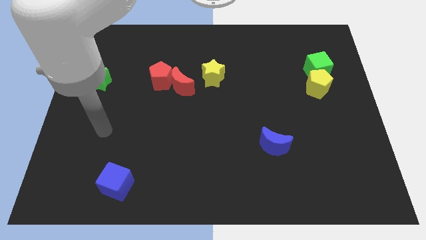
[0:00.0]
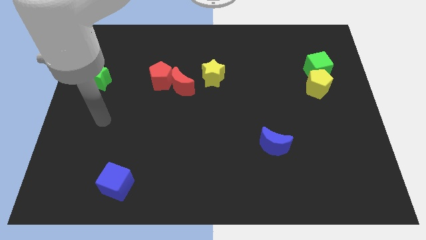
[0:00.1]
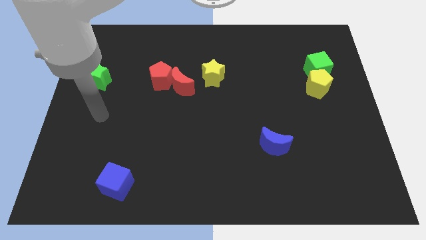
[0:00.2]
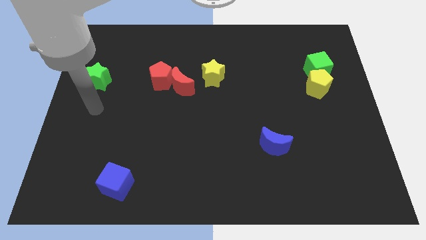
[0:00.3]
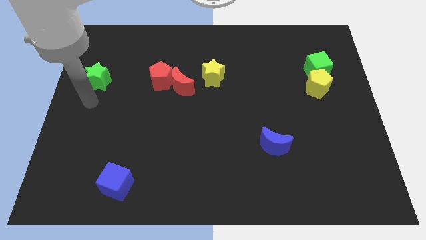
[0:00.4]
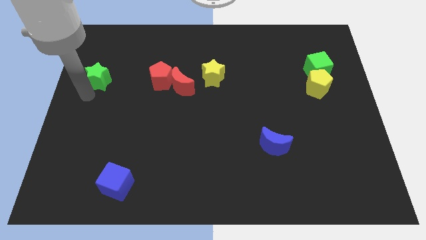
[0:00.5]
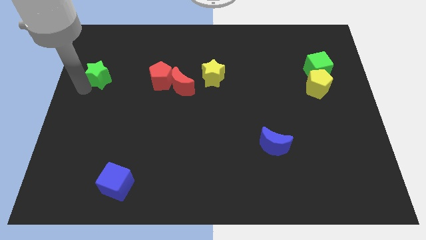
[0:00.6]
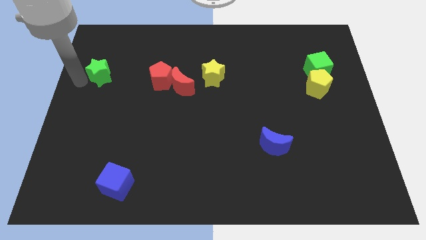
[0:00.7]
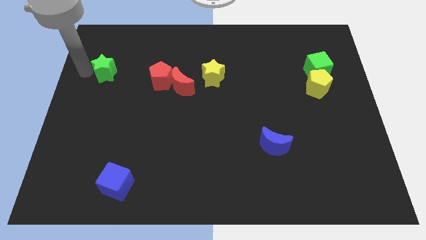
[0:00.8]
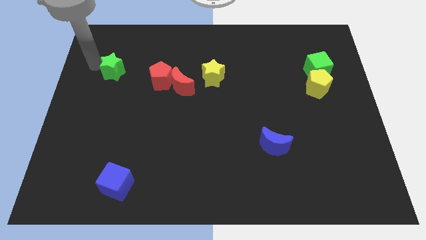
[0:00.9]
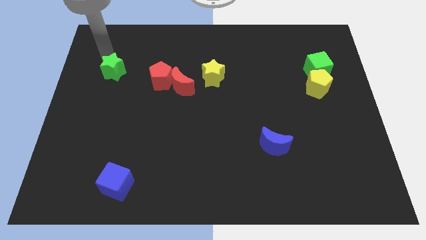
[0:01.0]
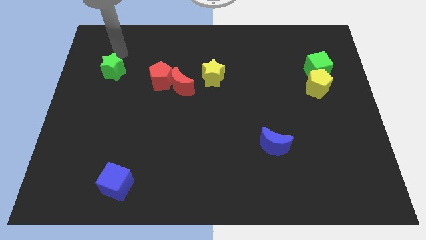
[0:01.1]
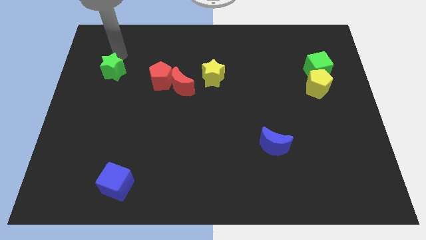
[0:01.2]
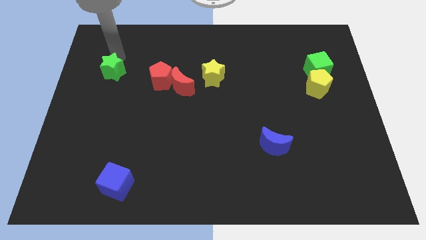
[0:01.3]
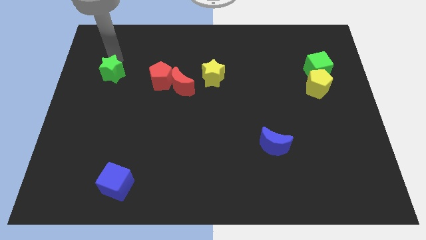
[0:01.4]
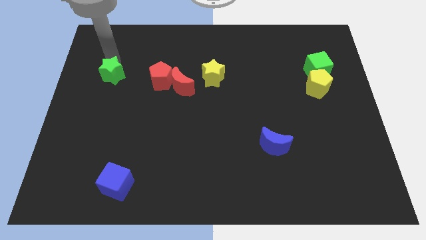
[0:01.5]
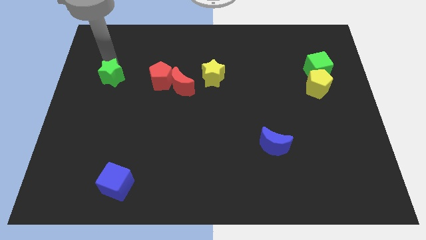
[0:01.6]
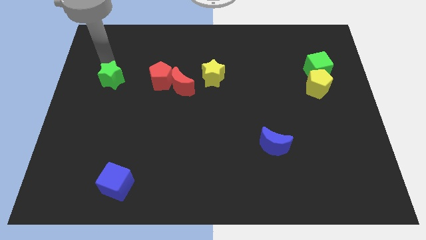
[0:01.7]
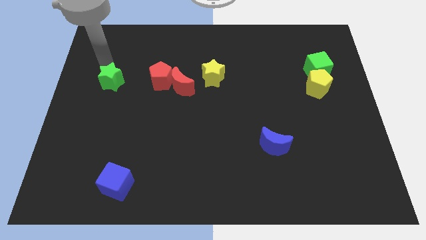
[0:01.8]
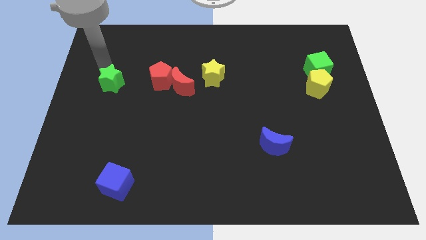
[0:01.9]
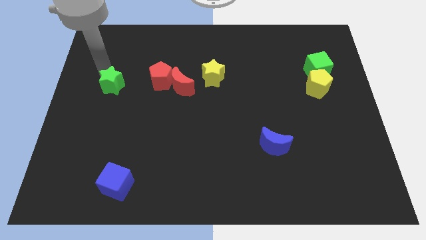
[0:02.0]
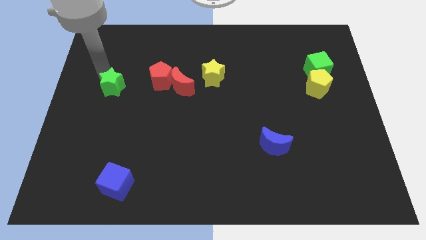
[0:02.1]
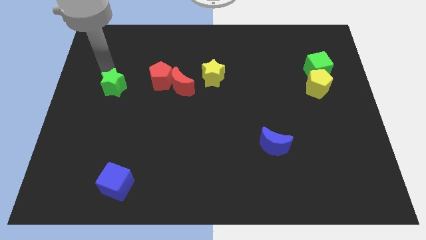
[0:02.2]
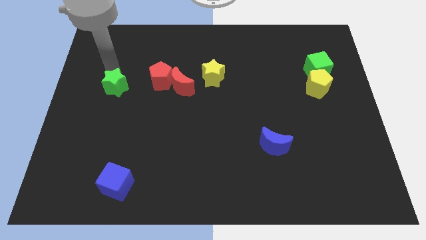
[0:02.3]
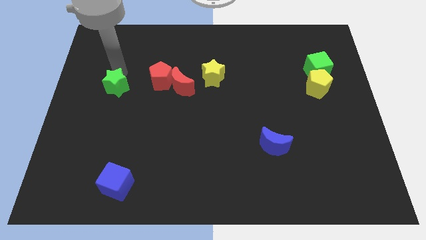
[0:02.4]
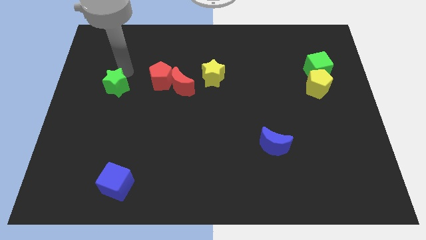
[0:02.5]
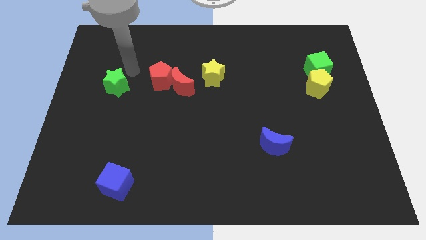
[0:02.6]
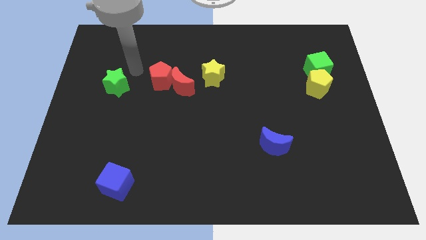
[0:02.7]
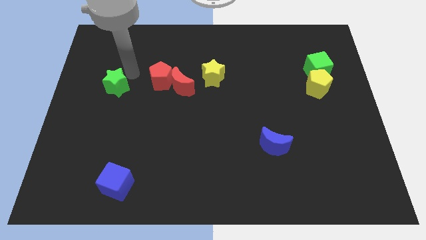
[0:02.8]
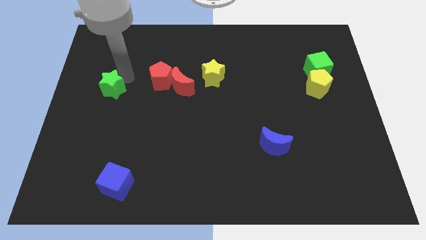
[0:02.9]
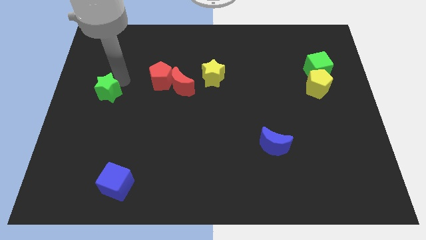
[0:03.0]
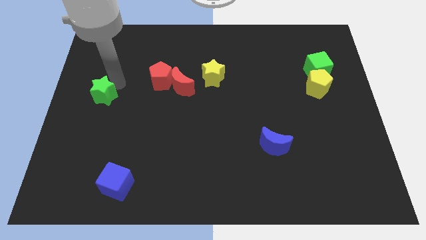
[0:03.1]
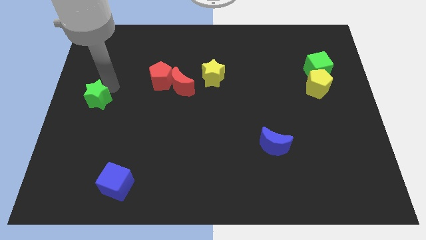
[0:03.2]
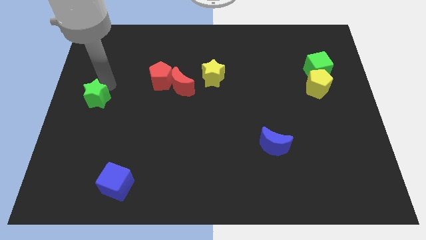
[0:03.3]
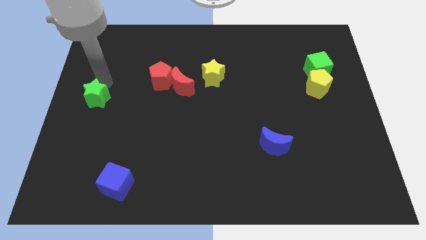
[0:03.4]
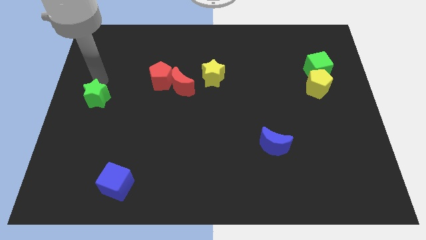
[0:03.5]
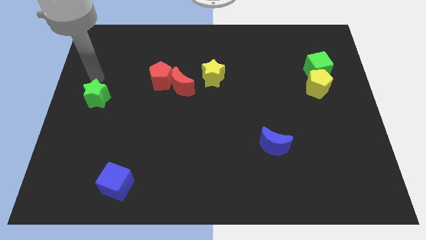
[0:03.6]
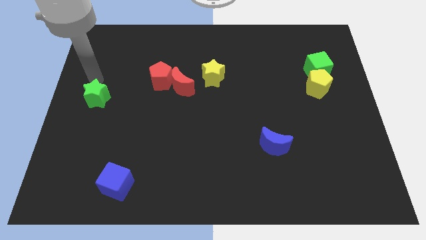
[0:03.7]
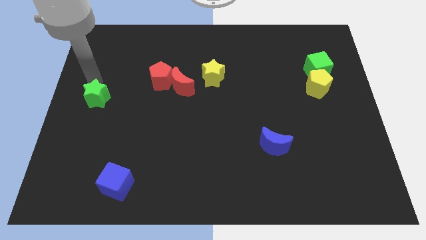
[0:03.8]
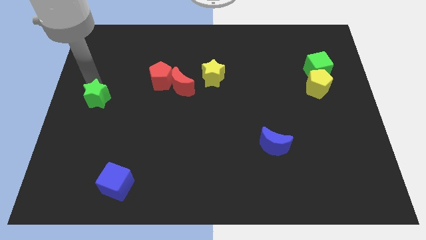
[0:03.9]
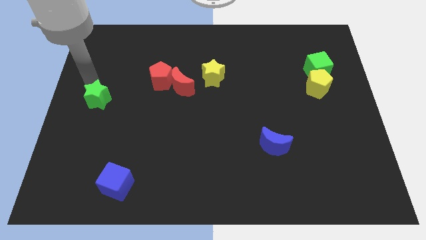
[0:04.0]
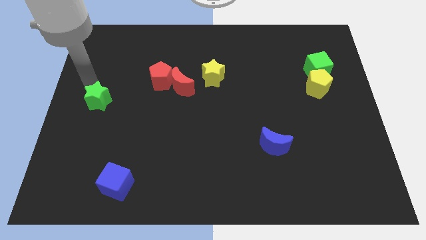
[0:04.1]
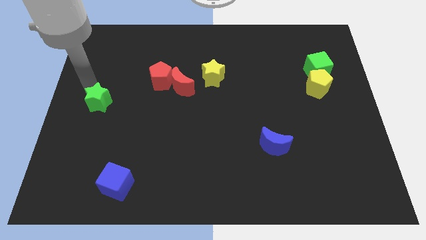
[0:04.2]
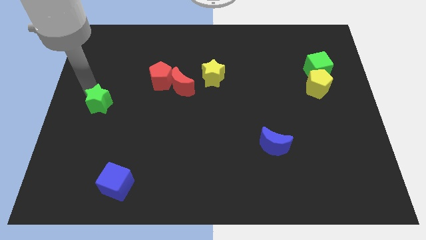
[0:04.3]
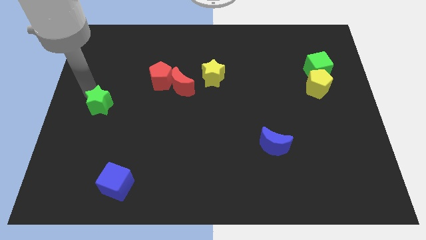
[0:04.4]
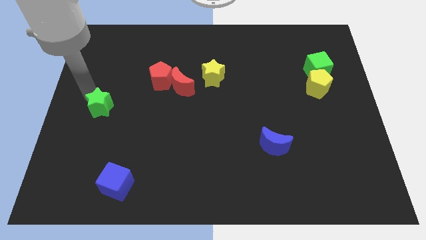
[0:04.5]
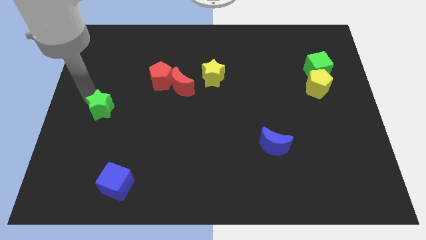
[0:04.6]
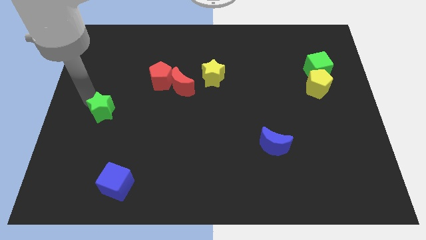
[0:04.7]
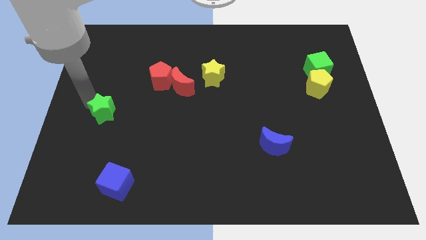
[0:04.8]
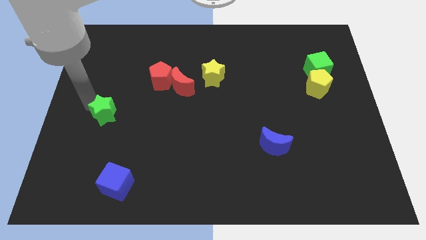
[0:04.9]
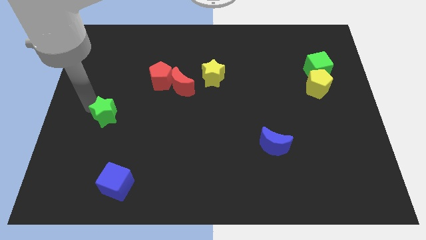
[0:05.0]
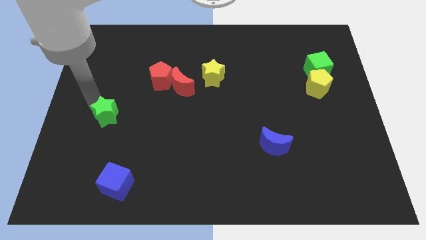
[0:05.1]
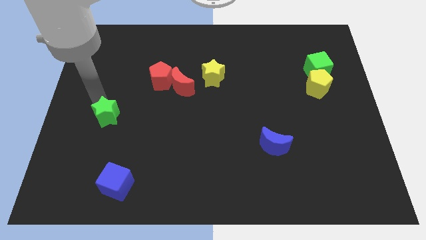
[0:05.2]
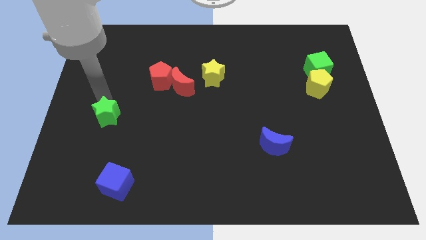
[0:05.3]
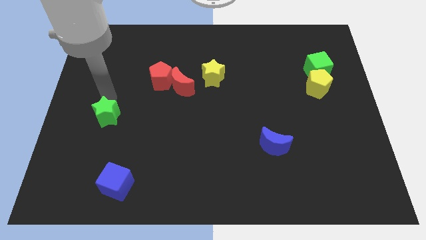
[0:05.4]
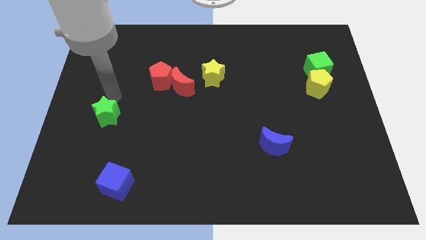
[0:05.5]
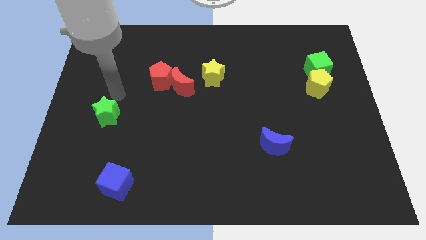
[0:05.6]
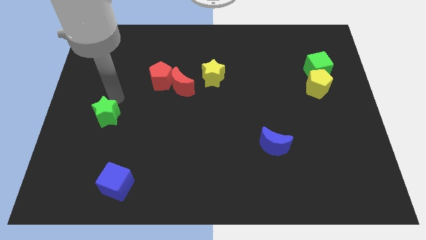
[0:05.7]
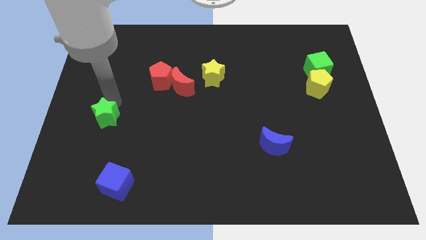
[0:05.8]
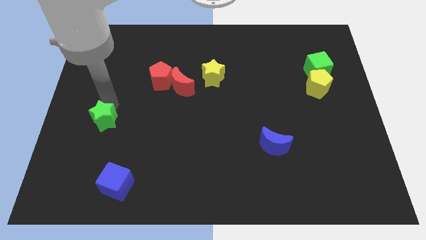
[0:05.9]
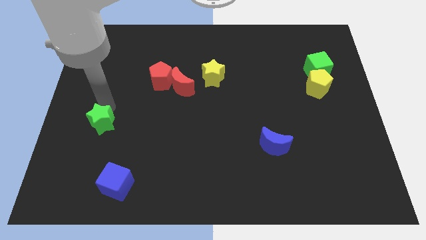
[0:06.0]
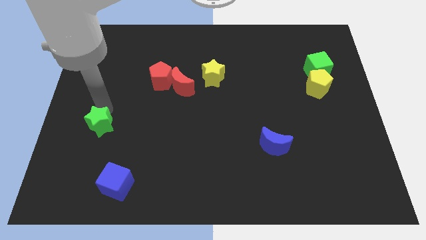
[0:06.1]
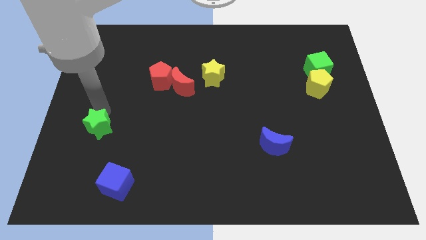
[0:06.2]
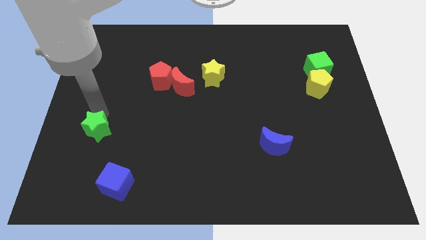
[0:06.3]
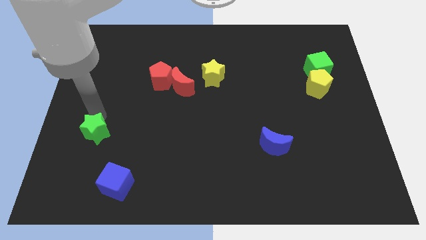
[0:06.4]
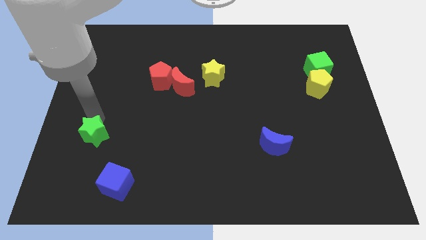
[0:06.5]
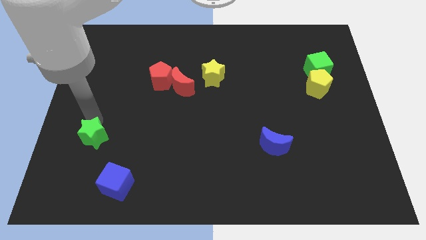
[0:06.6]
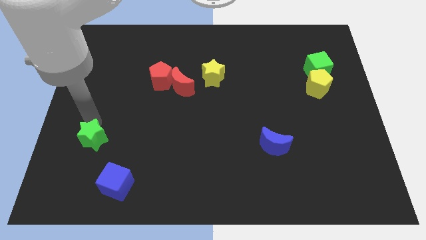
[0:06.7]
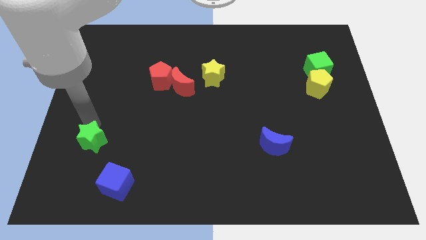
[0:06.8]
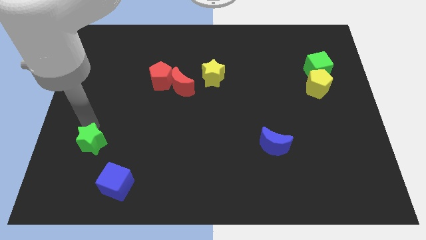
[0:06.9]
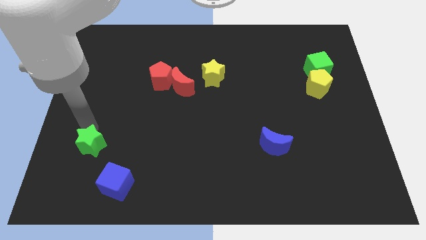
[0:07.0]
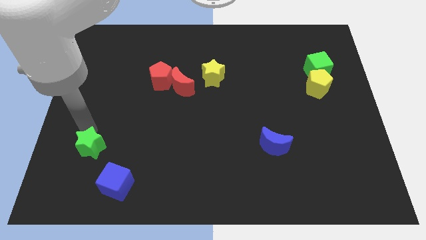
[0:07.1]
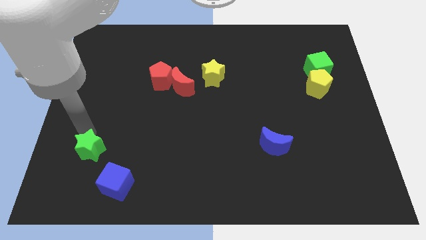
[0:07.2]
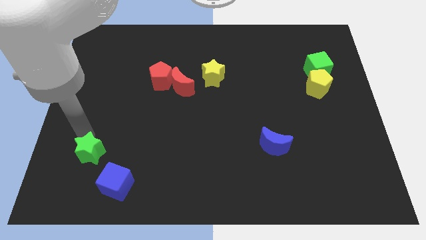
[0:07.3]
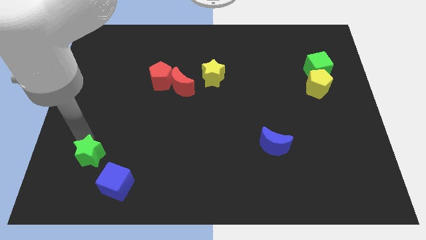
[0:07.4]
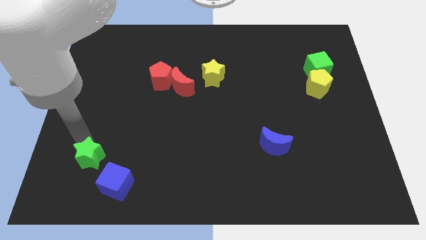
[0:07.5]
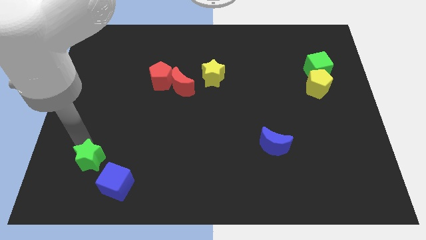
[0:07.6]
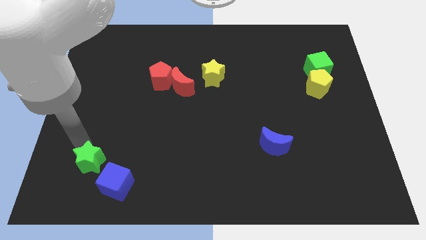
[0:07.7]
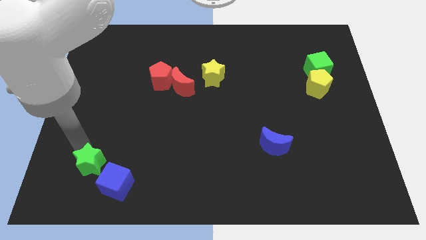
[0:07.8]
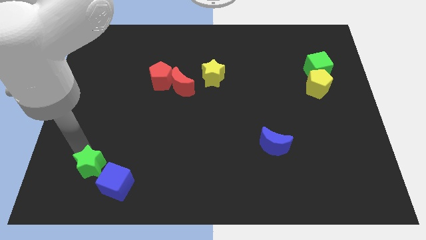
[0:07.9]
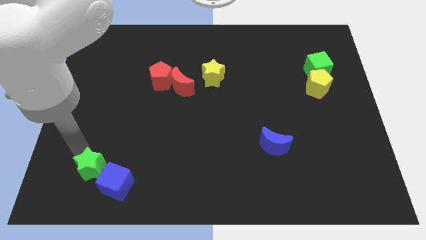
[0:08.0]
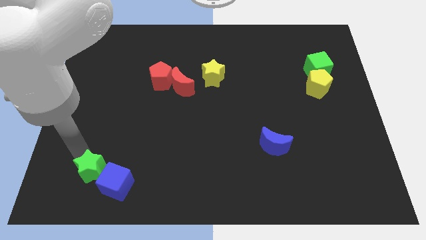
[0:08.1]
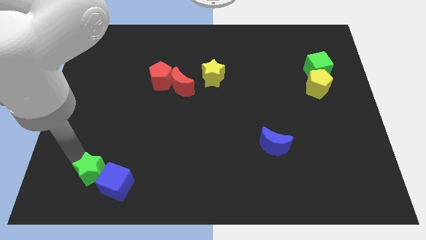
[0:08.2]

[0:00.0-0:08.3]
push the green star to the blue cube
